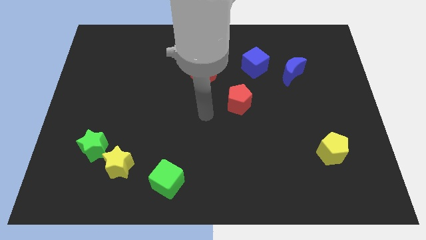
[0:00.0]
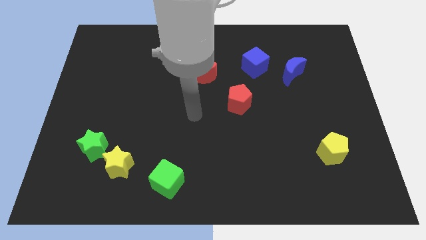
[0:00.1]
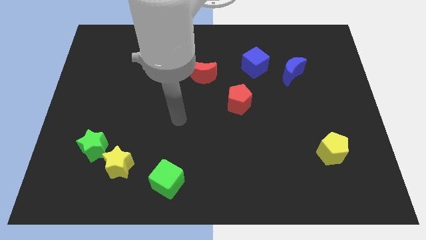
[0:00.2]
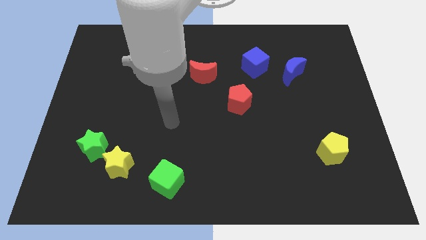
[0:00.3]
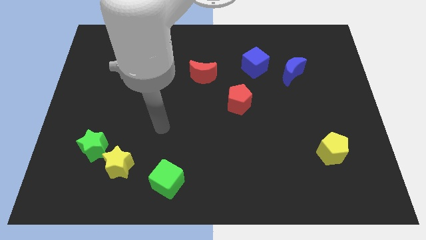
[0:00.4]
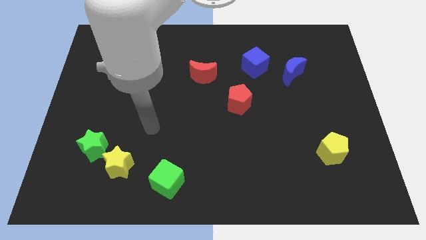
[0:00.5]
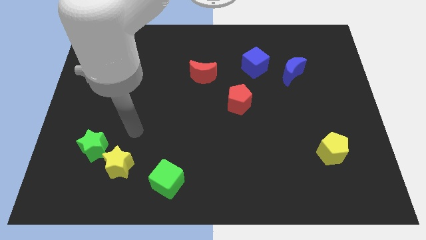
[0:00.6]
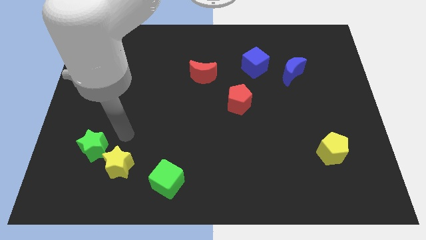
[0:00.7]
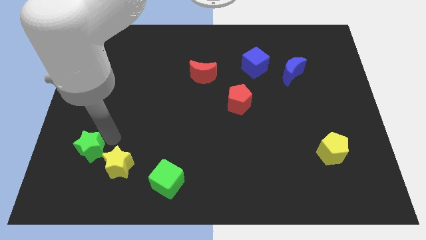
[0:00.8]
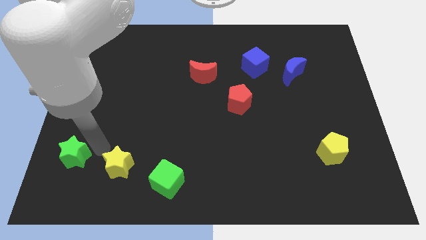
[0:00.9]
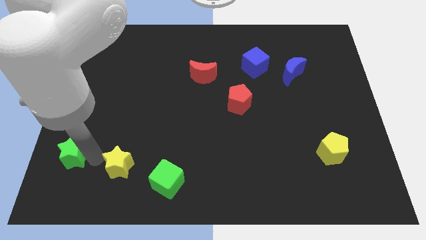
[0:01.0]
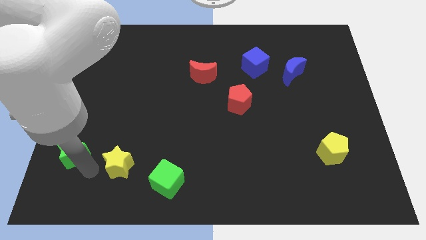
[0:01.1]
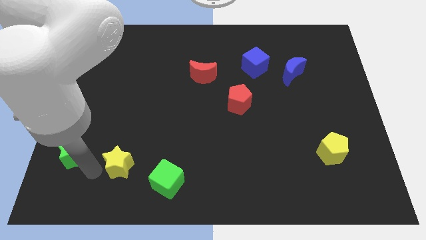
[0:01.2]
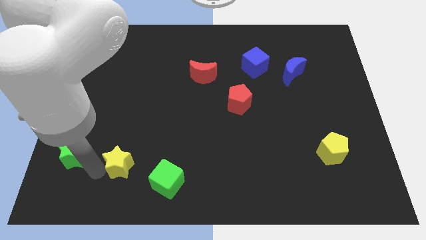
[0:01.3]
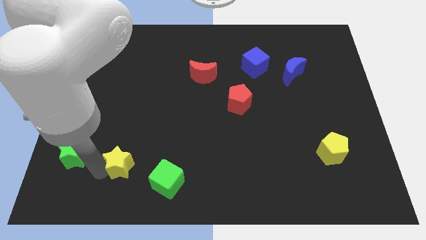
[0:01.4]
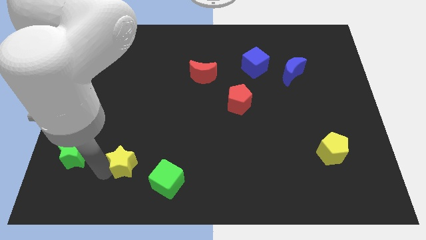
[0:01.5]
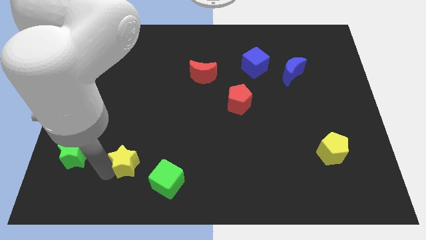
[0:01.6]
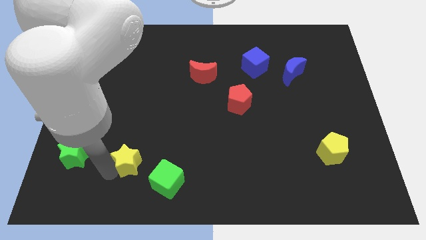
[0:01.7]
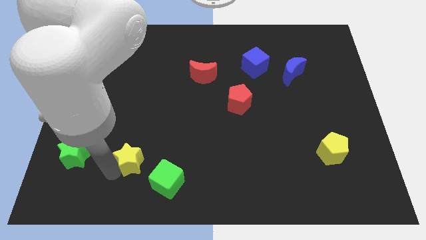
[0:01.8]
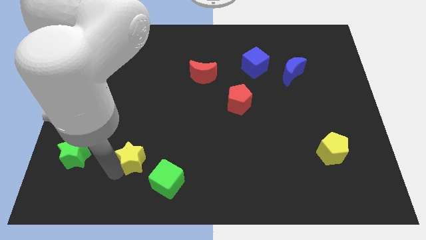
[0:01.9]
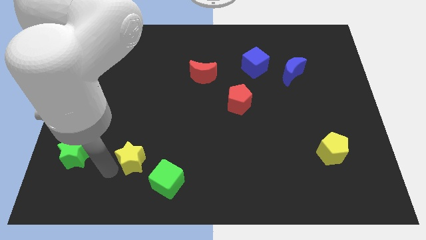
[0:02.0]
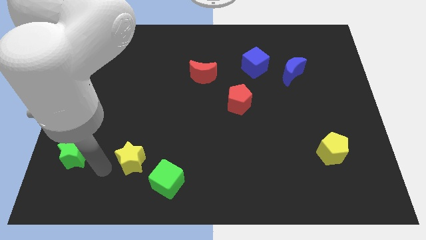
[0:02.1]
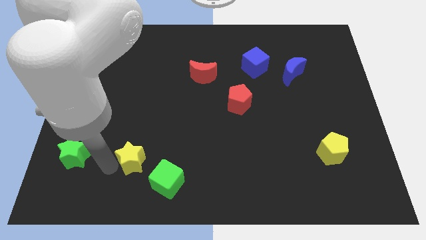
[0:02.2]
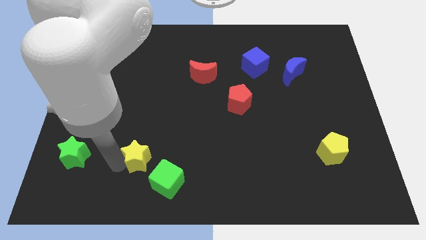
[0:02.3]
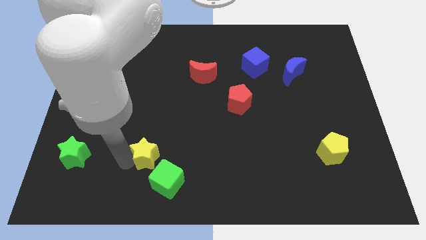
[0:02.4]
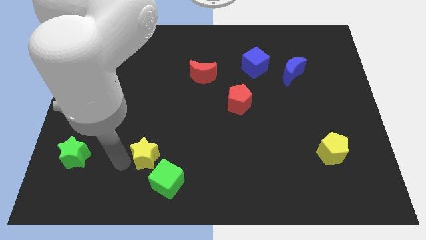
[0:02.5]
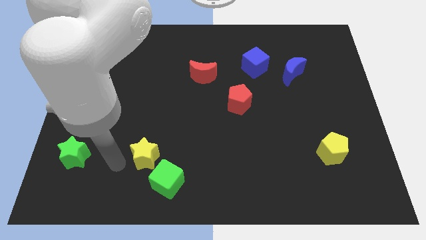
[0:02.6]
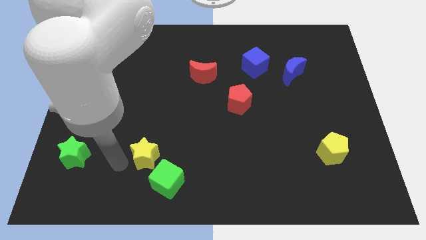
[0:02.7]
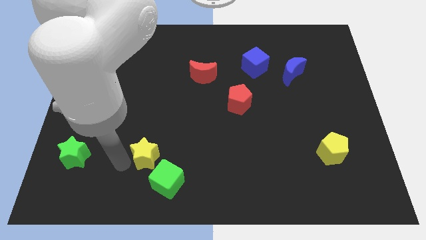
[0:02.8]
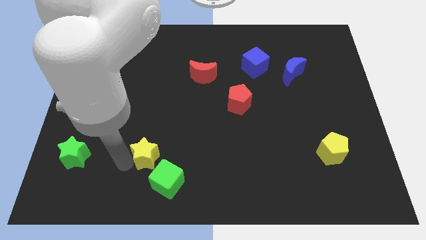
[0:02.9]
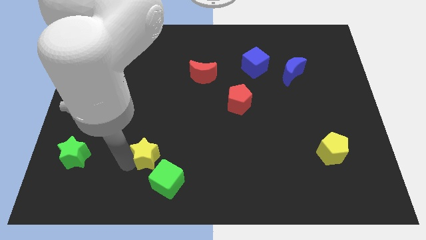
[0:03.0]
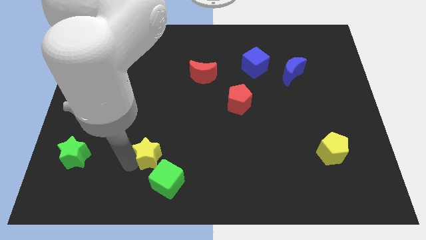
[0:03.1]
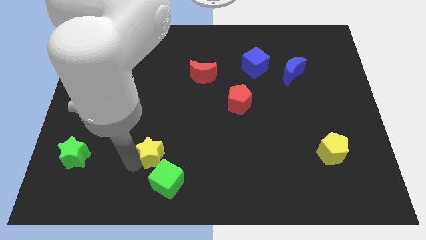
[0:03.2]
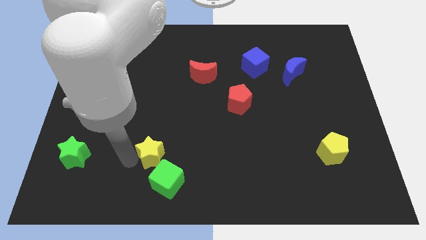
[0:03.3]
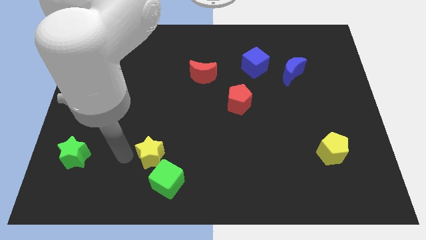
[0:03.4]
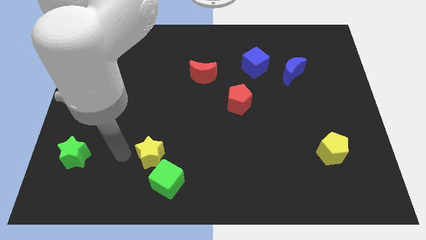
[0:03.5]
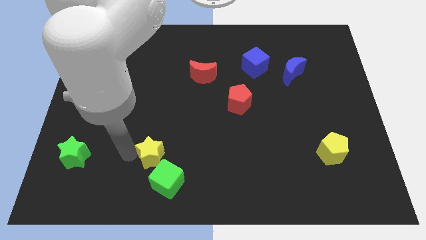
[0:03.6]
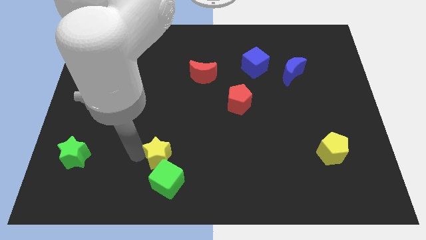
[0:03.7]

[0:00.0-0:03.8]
slide the yellow star somewhat right

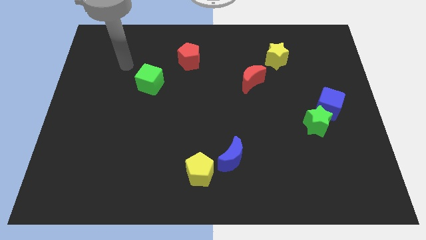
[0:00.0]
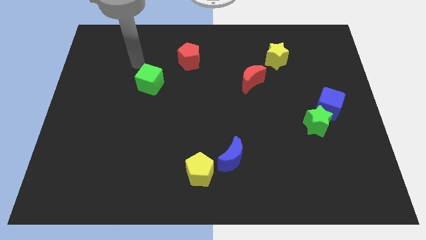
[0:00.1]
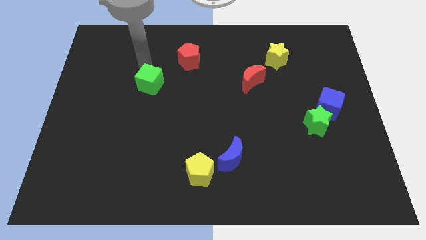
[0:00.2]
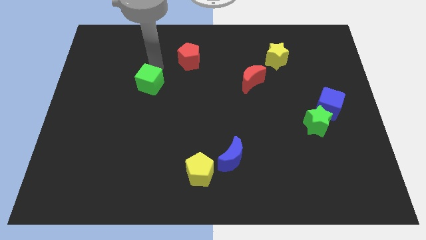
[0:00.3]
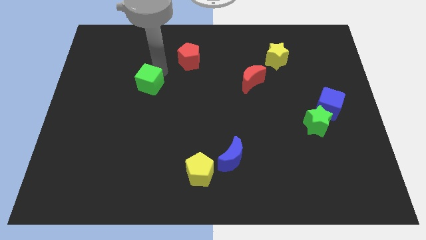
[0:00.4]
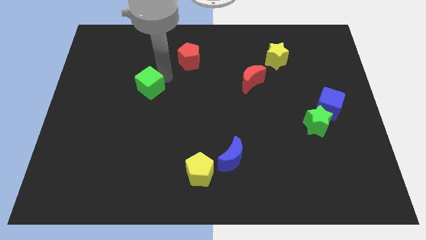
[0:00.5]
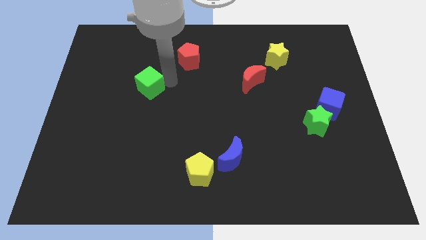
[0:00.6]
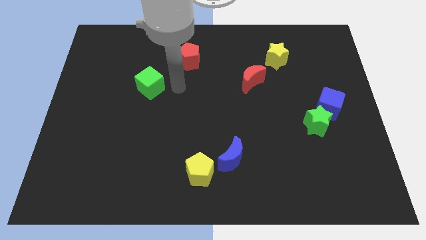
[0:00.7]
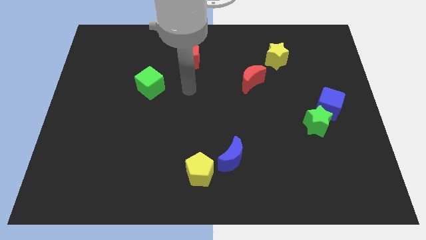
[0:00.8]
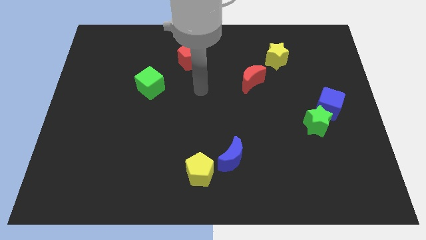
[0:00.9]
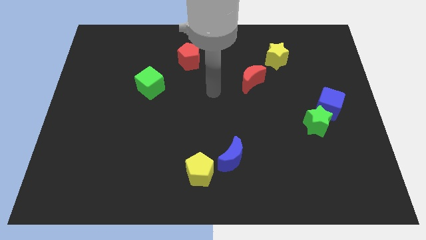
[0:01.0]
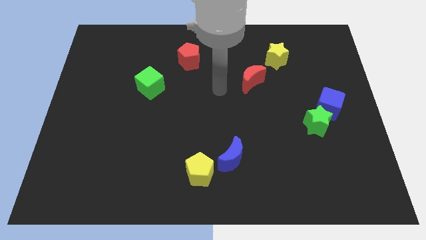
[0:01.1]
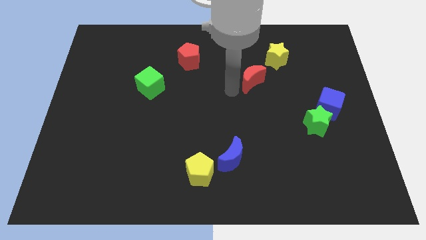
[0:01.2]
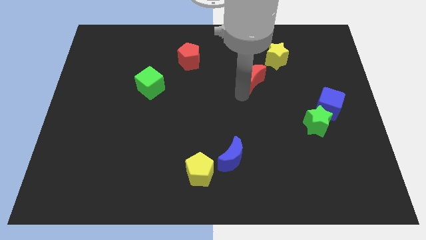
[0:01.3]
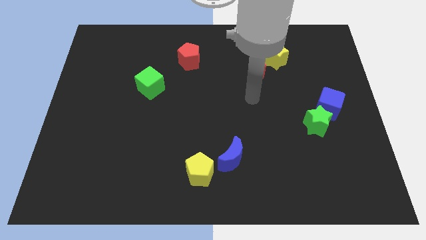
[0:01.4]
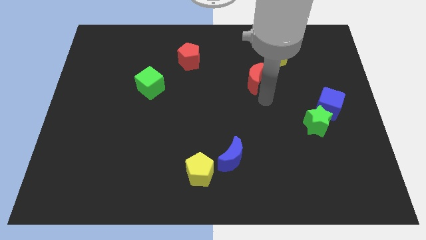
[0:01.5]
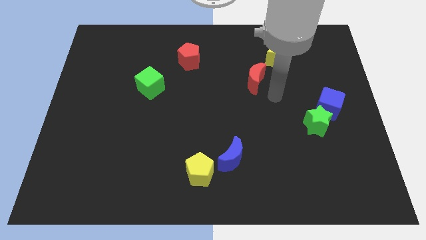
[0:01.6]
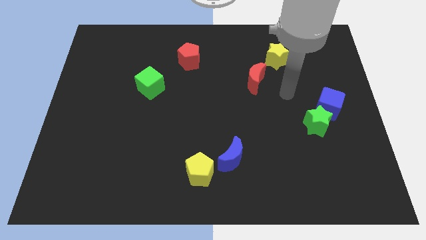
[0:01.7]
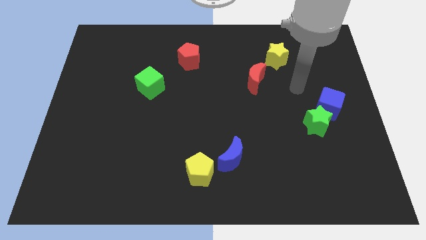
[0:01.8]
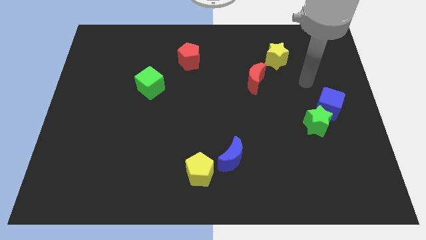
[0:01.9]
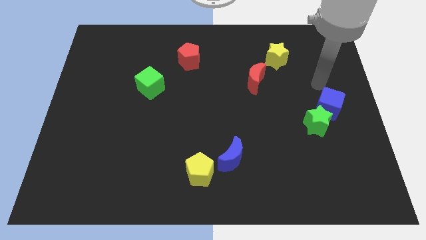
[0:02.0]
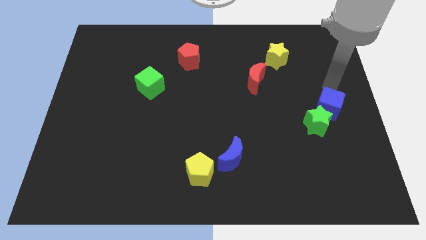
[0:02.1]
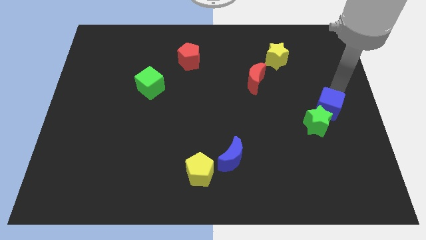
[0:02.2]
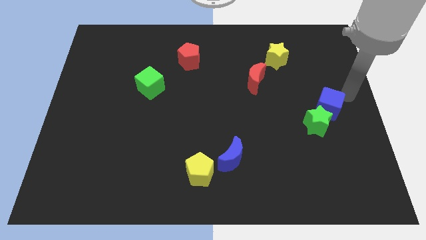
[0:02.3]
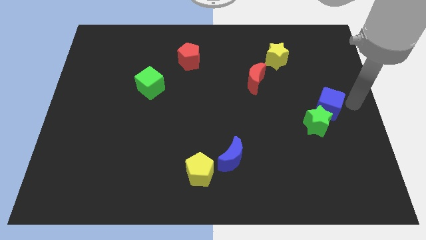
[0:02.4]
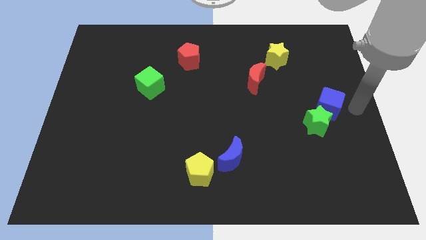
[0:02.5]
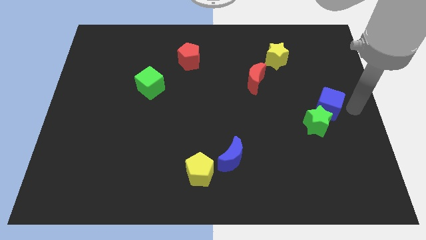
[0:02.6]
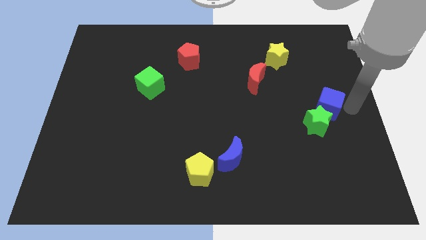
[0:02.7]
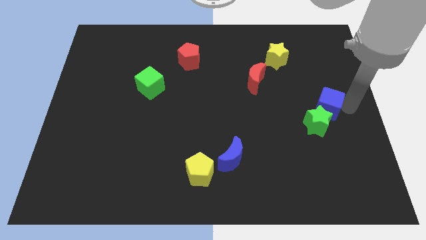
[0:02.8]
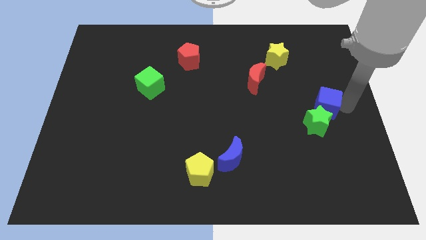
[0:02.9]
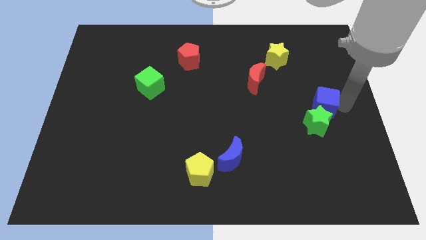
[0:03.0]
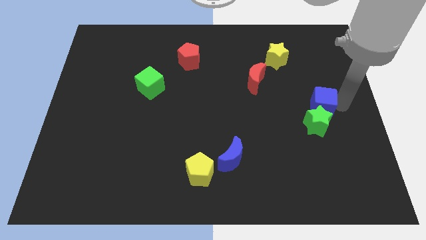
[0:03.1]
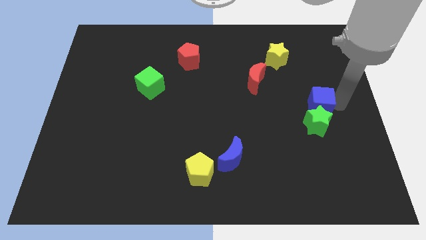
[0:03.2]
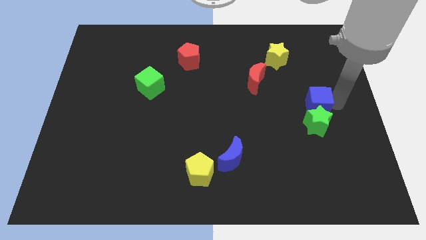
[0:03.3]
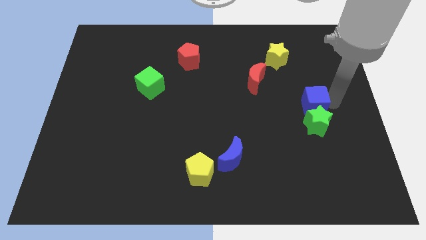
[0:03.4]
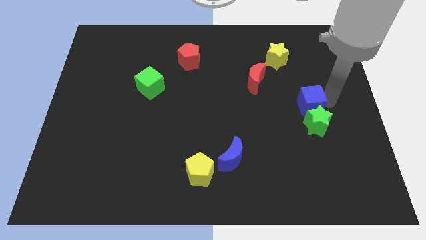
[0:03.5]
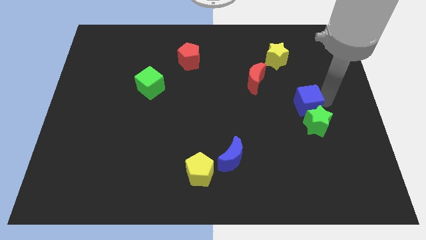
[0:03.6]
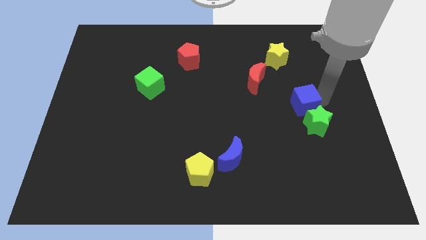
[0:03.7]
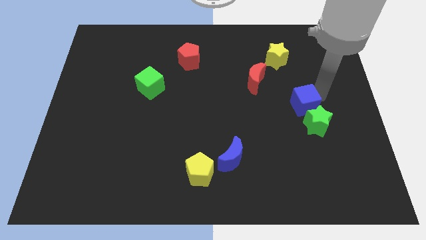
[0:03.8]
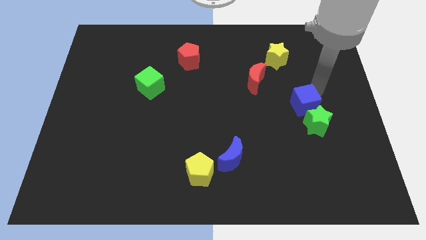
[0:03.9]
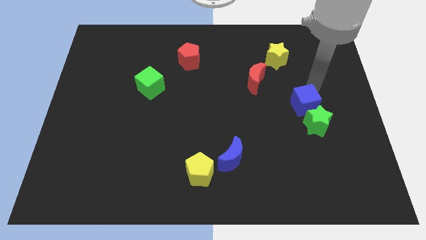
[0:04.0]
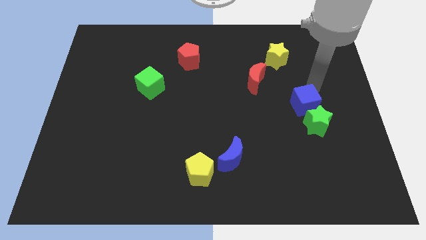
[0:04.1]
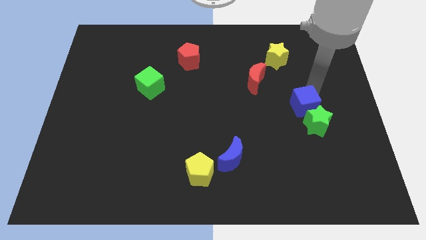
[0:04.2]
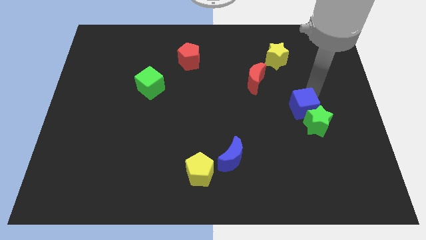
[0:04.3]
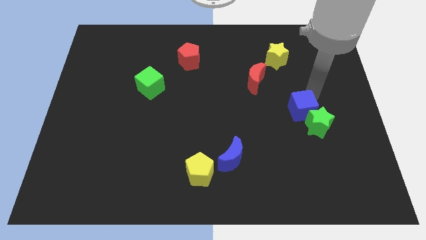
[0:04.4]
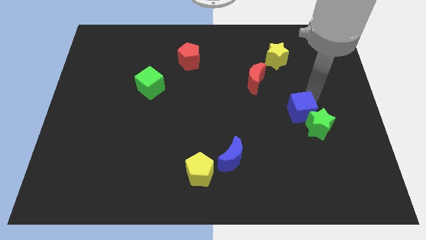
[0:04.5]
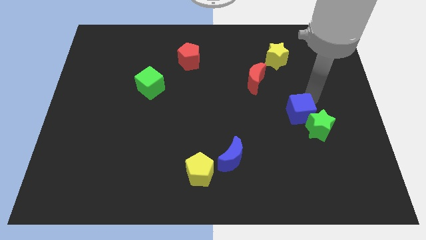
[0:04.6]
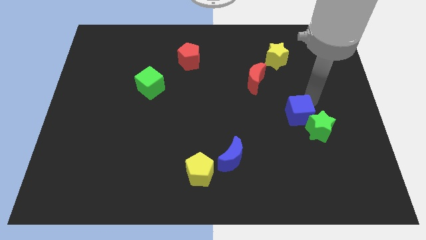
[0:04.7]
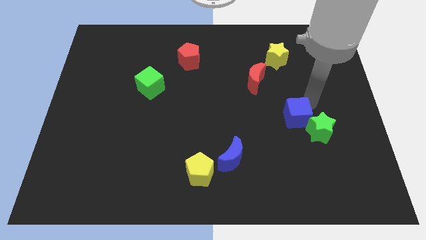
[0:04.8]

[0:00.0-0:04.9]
slightly move the blue cube diagonally down and left
